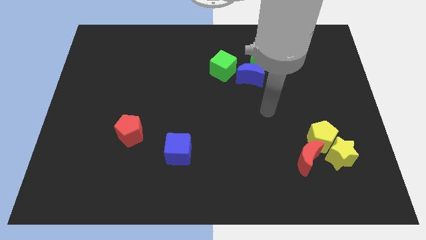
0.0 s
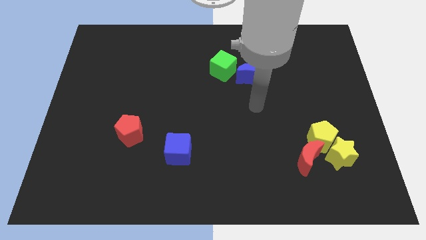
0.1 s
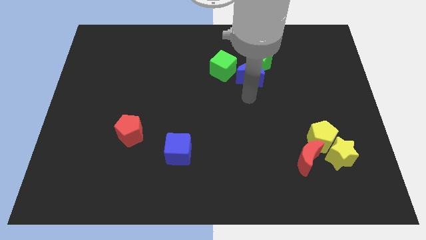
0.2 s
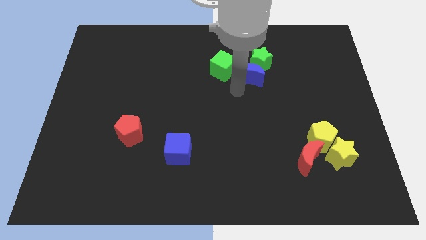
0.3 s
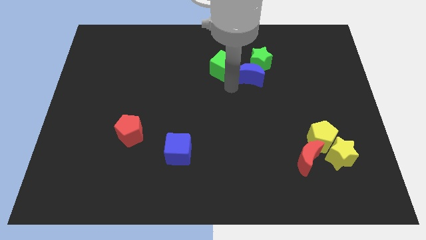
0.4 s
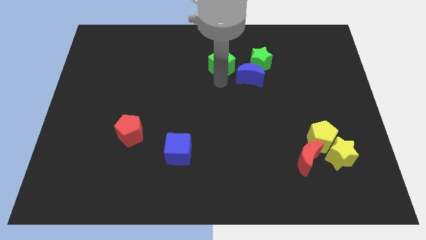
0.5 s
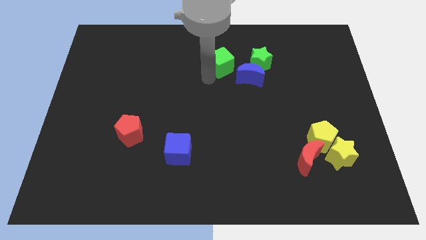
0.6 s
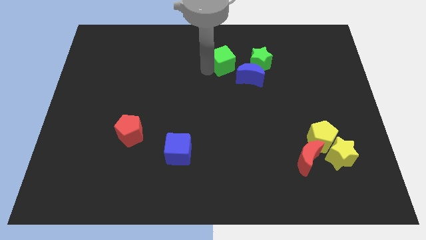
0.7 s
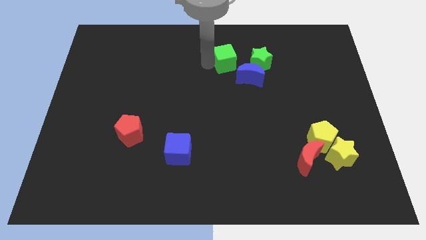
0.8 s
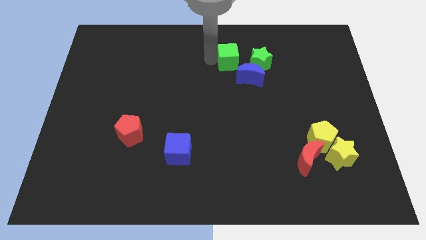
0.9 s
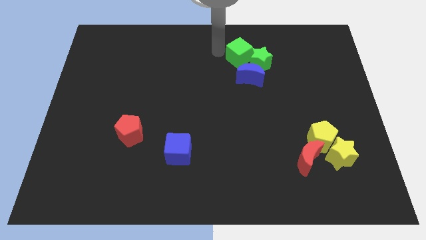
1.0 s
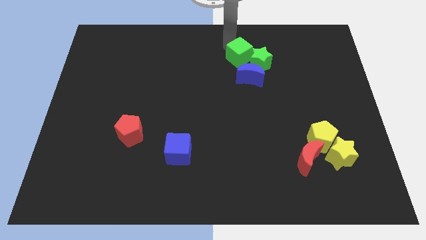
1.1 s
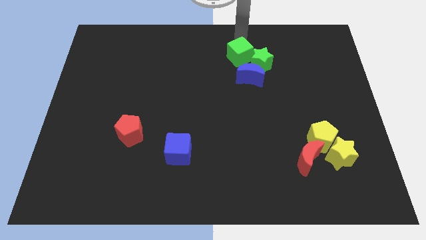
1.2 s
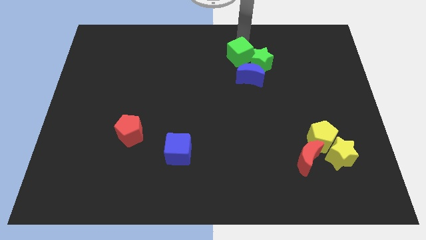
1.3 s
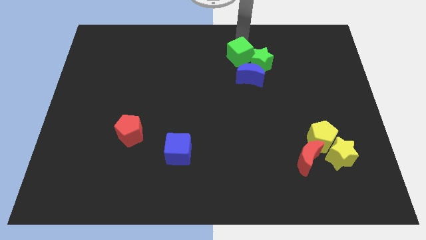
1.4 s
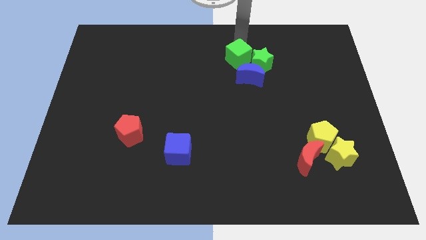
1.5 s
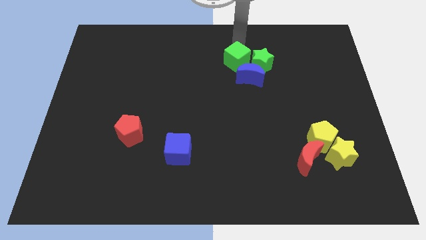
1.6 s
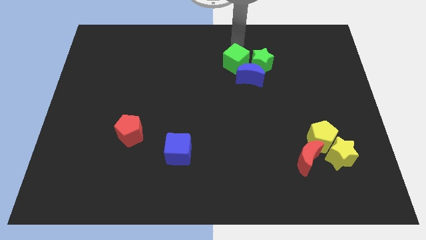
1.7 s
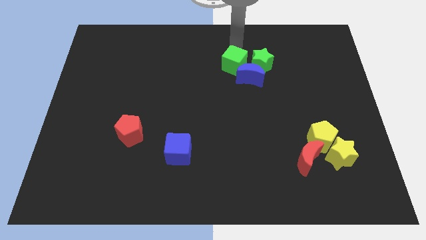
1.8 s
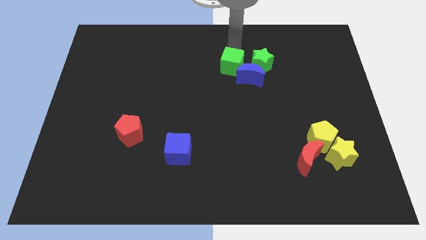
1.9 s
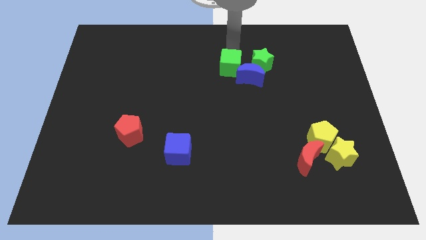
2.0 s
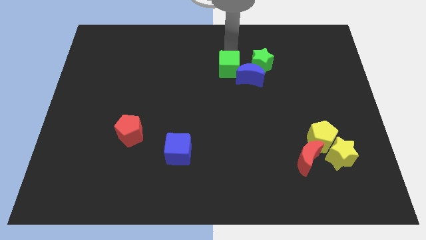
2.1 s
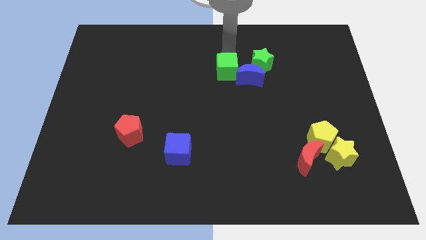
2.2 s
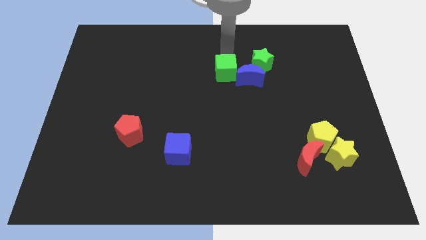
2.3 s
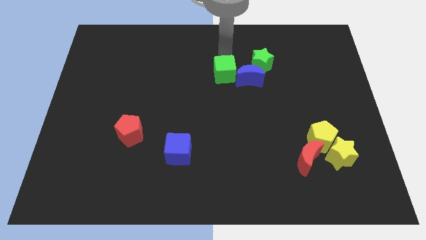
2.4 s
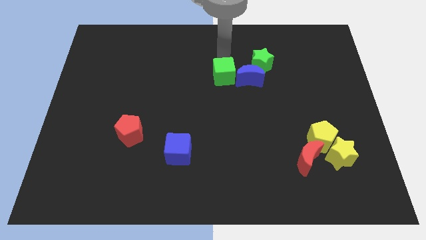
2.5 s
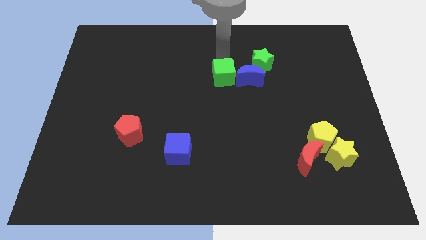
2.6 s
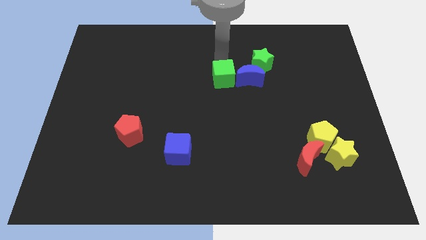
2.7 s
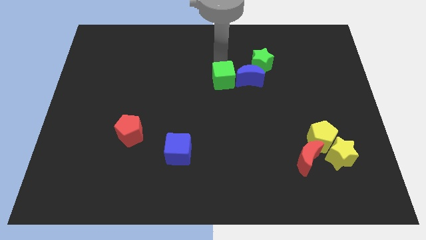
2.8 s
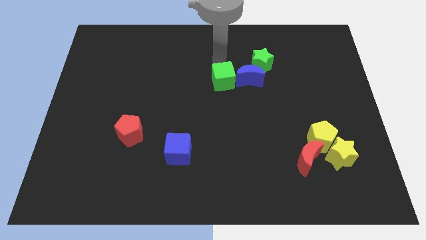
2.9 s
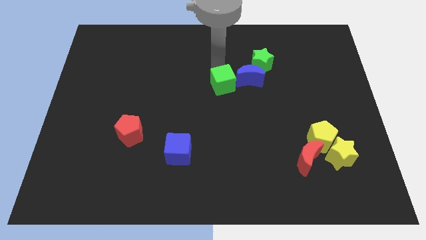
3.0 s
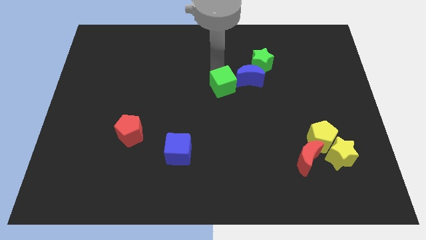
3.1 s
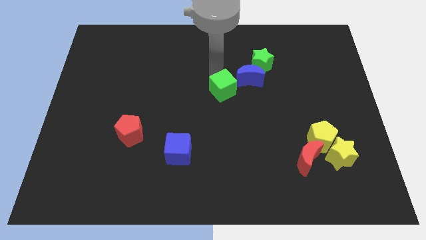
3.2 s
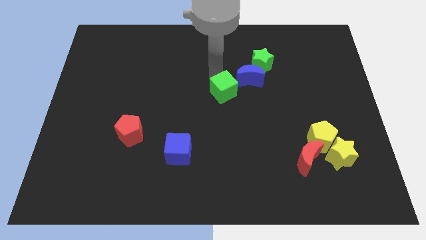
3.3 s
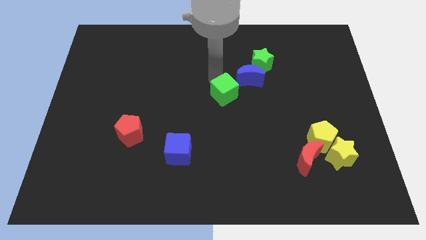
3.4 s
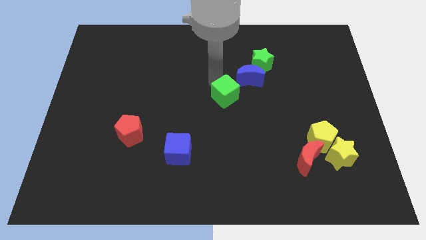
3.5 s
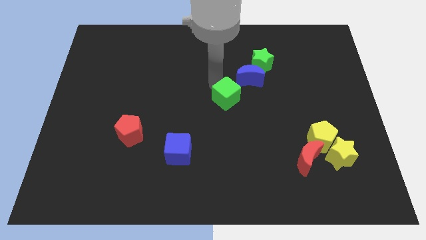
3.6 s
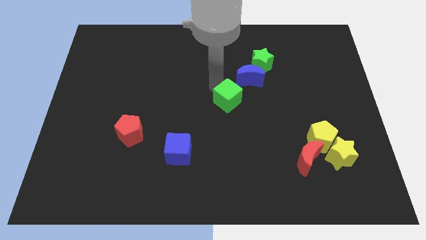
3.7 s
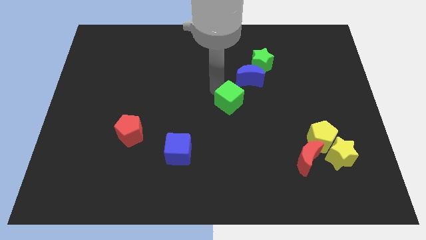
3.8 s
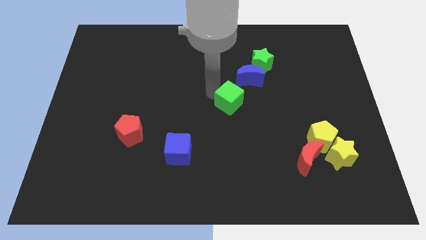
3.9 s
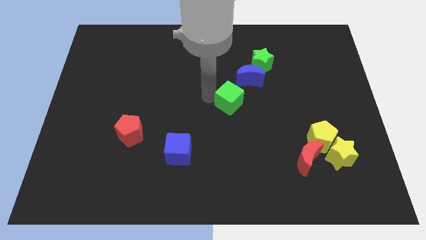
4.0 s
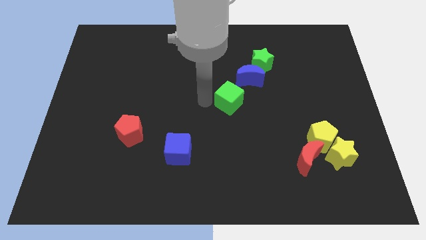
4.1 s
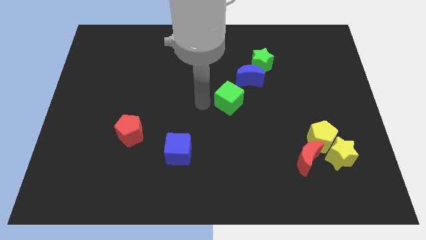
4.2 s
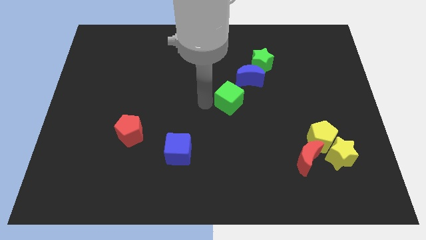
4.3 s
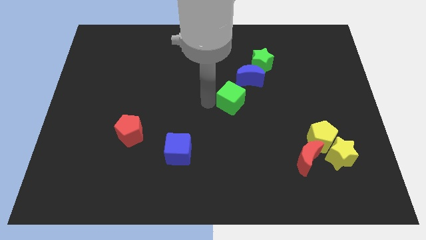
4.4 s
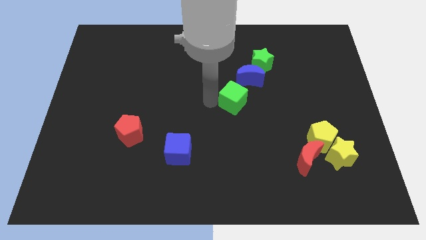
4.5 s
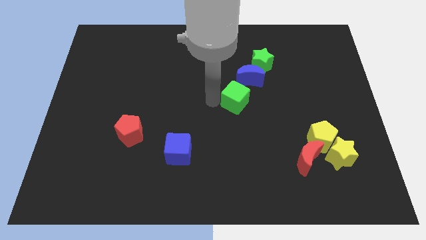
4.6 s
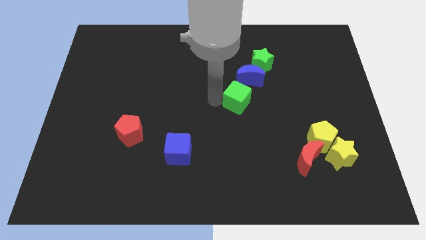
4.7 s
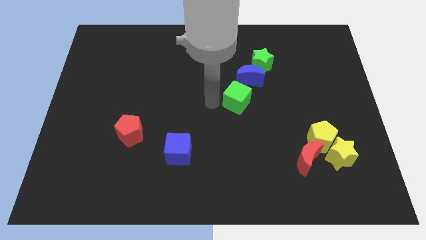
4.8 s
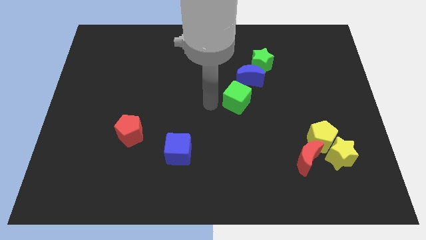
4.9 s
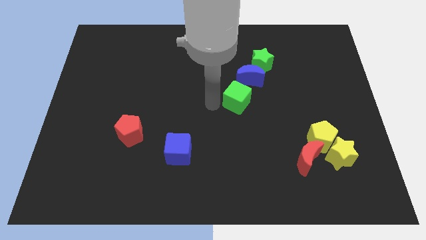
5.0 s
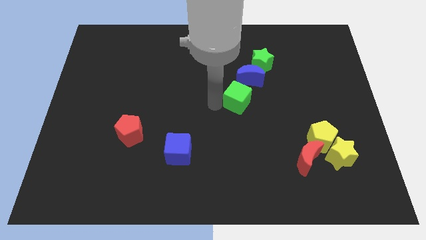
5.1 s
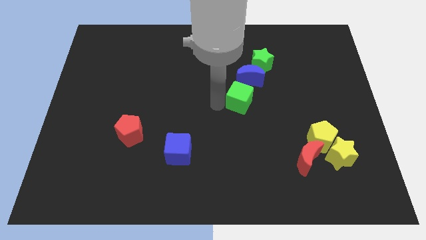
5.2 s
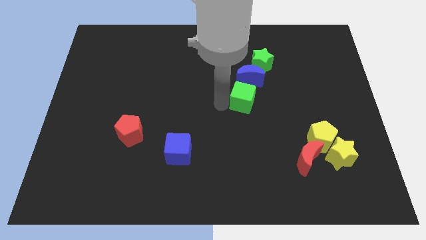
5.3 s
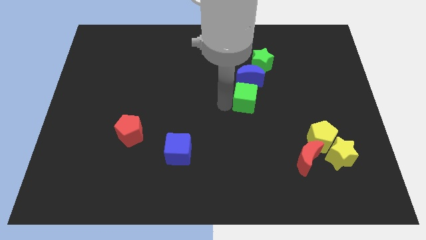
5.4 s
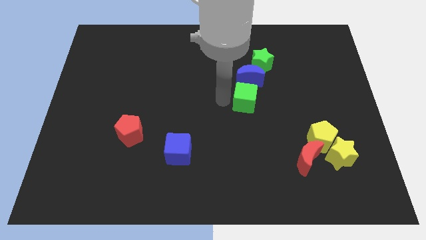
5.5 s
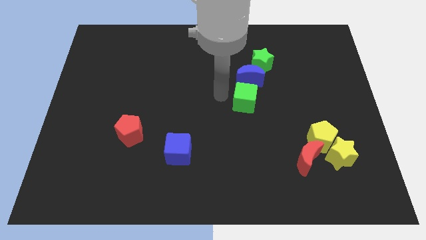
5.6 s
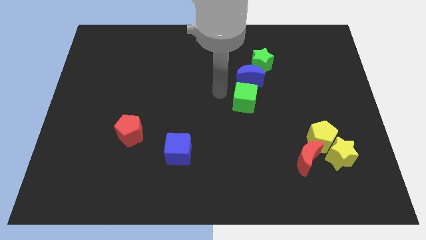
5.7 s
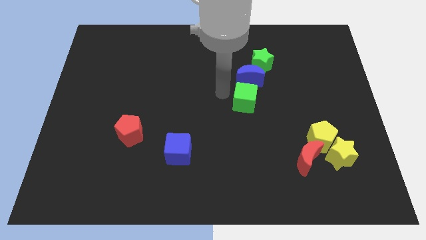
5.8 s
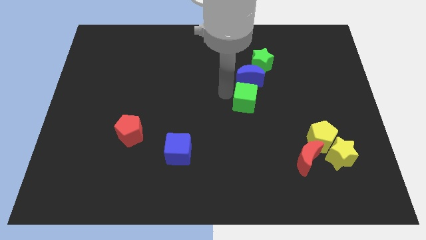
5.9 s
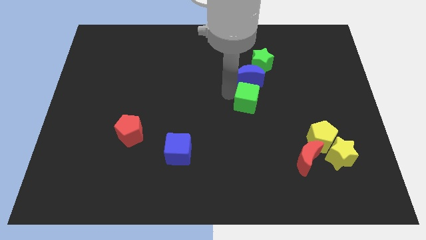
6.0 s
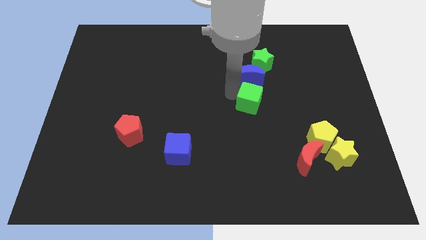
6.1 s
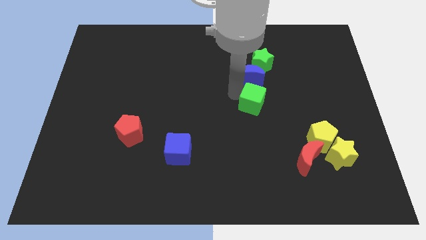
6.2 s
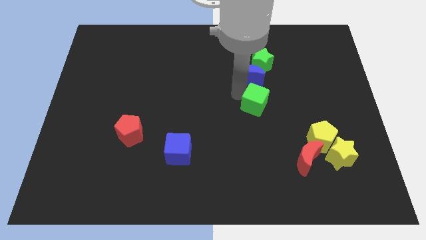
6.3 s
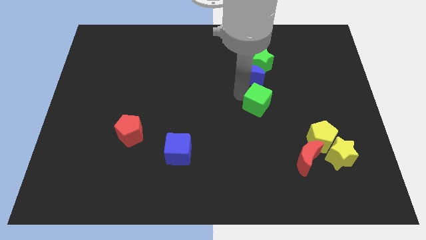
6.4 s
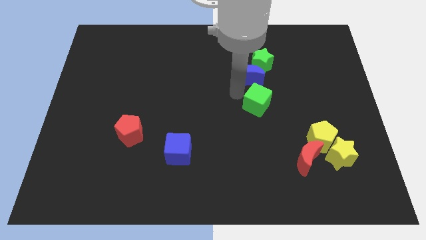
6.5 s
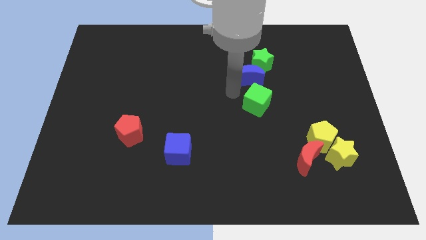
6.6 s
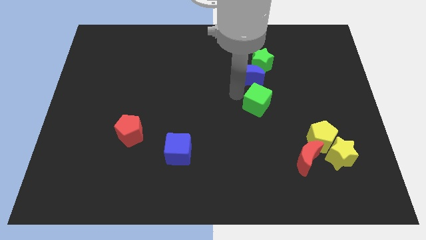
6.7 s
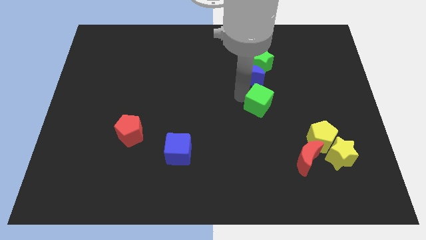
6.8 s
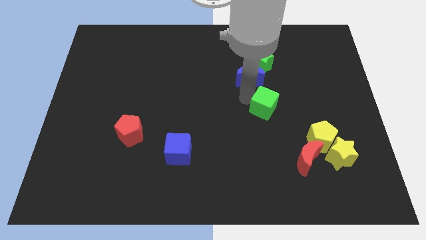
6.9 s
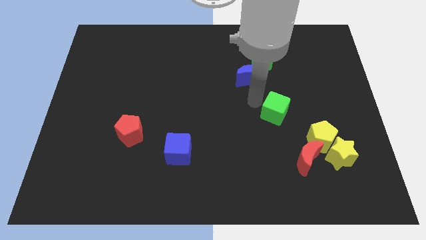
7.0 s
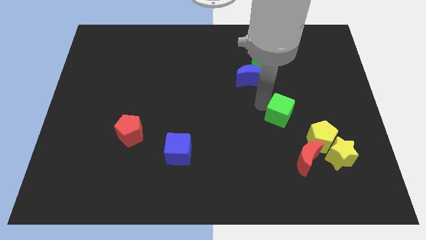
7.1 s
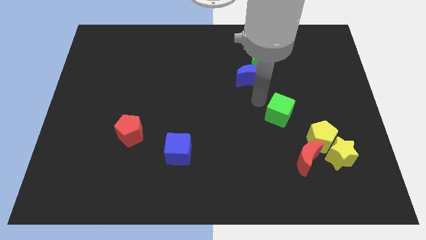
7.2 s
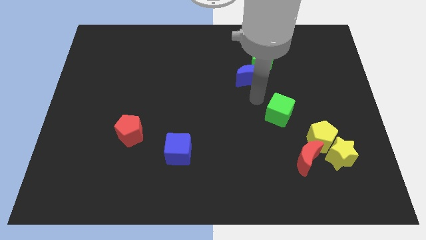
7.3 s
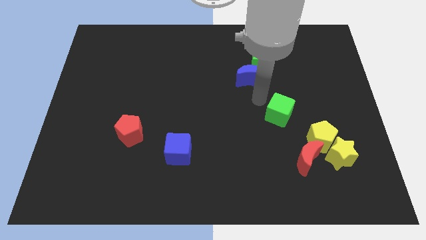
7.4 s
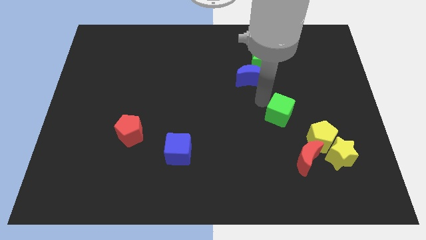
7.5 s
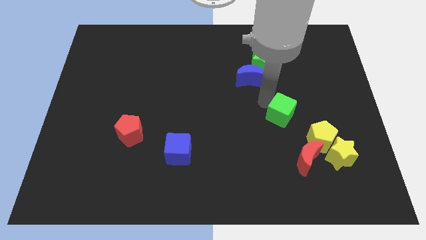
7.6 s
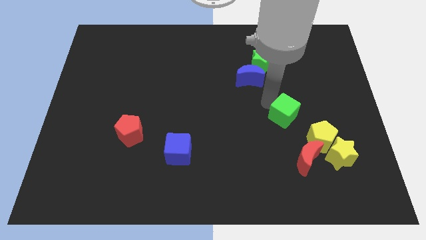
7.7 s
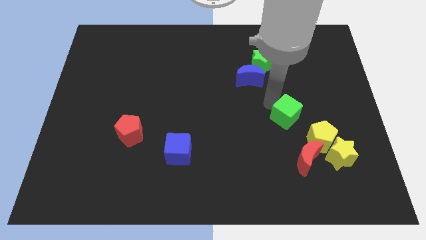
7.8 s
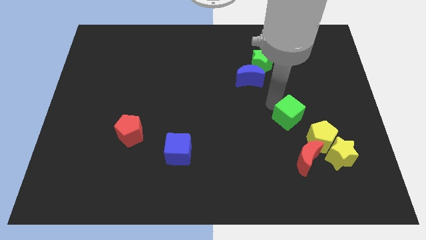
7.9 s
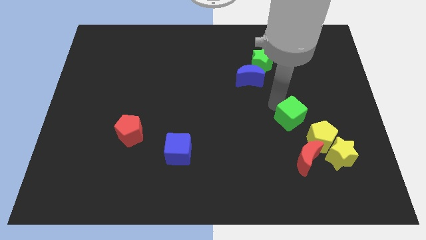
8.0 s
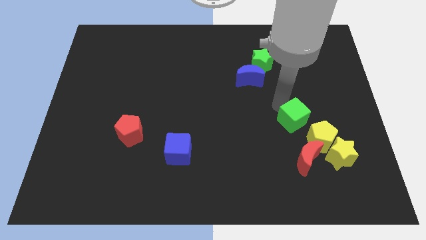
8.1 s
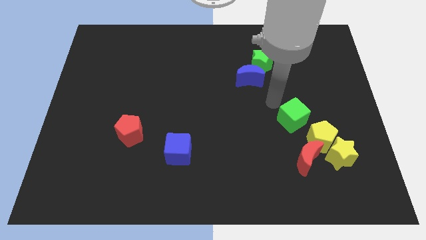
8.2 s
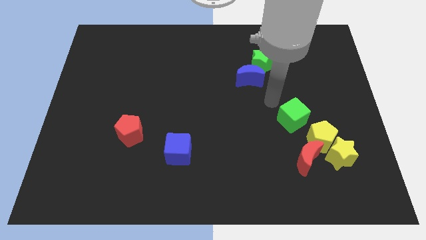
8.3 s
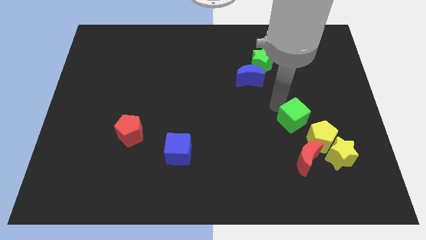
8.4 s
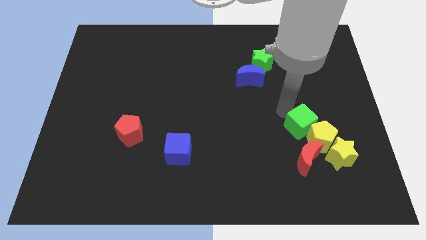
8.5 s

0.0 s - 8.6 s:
slide the green cube next to the yellow pentagon
